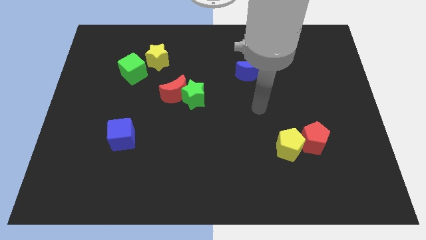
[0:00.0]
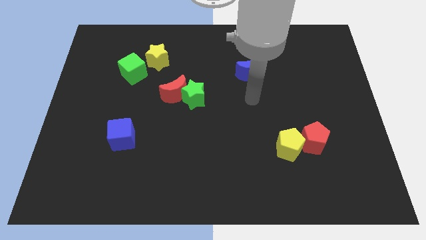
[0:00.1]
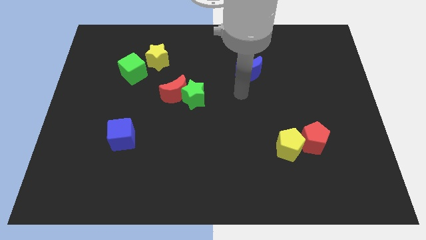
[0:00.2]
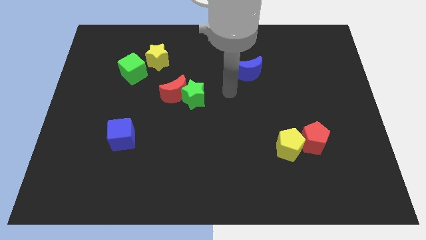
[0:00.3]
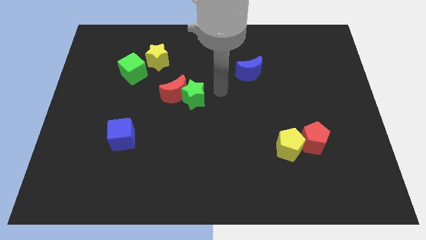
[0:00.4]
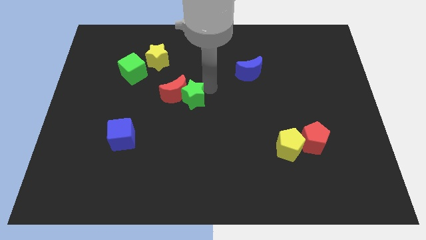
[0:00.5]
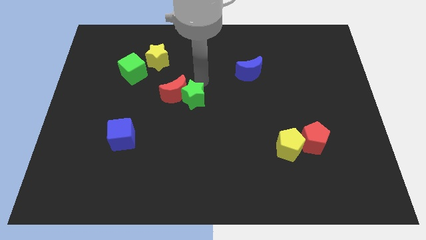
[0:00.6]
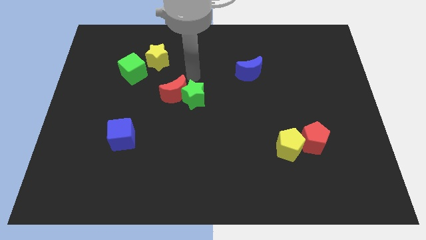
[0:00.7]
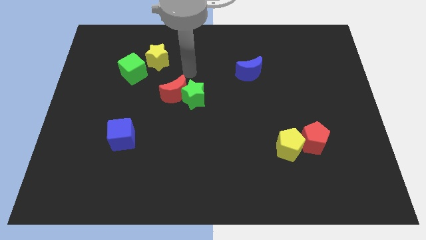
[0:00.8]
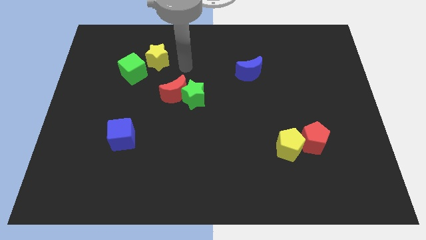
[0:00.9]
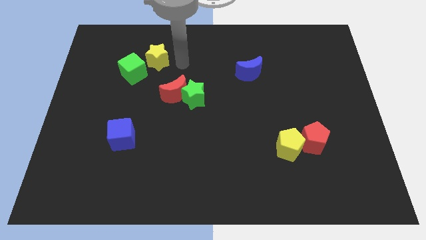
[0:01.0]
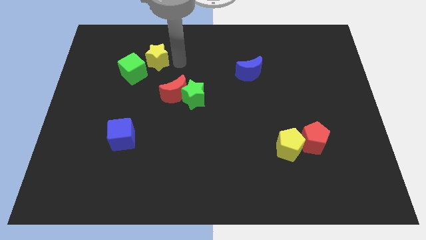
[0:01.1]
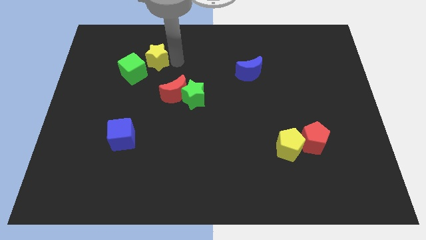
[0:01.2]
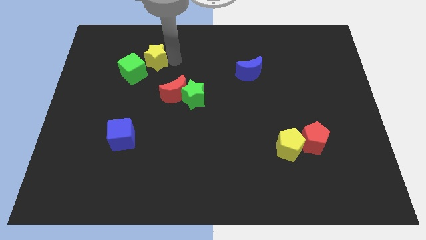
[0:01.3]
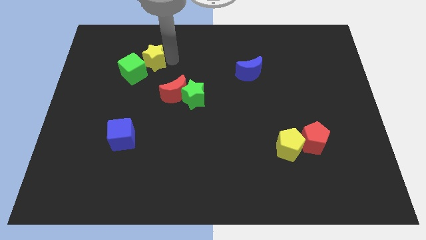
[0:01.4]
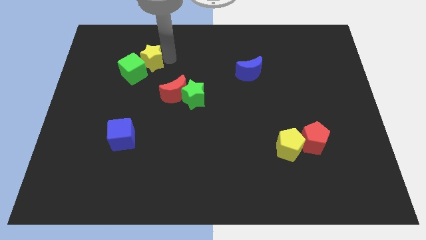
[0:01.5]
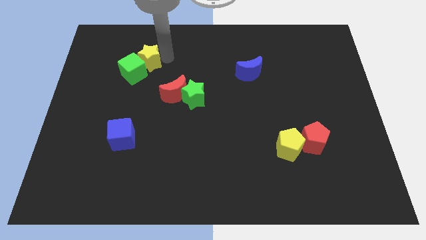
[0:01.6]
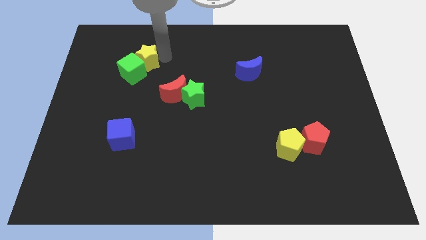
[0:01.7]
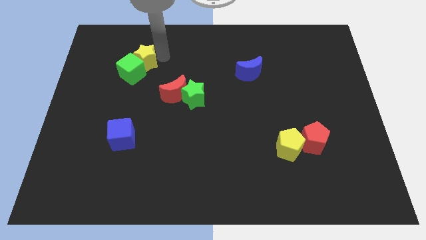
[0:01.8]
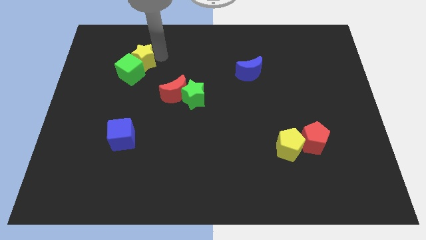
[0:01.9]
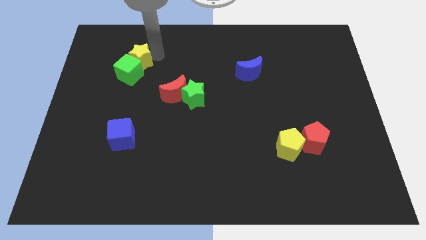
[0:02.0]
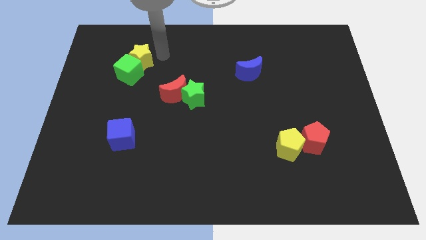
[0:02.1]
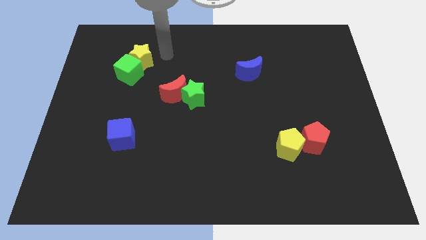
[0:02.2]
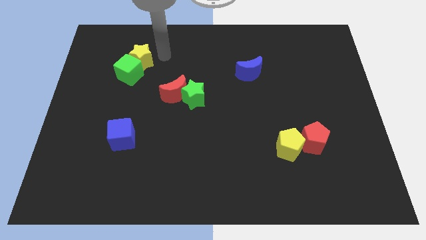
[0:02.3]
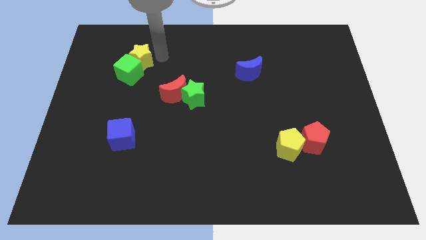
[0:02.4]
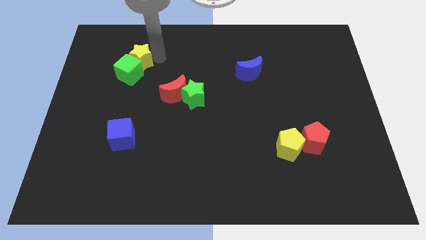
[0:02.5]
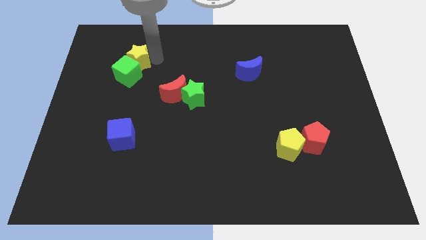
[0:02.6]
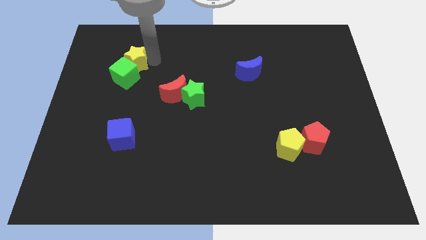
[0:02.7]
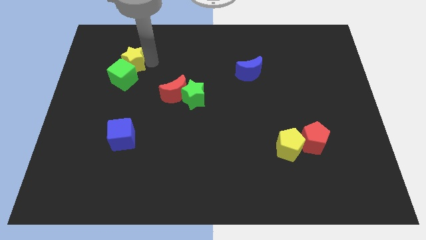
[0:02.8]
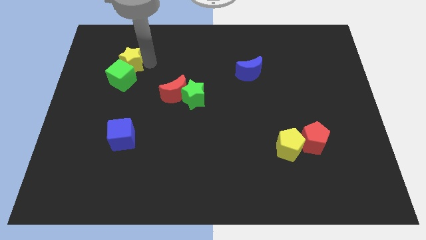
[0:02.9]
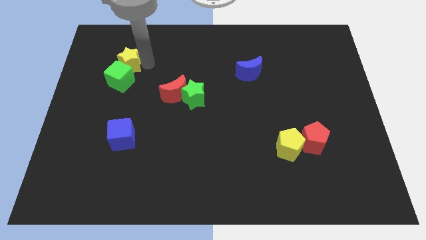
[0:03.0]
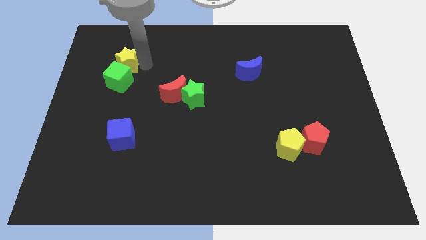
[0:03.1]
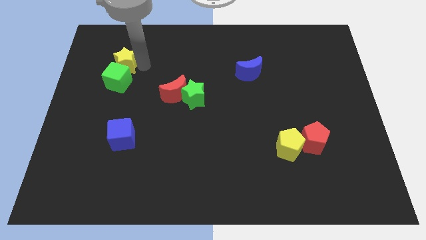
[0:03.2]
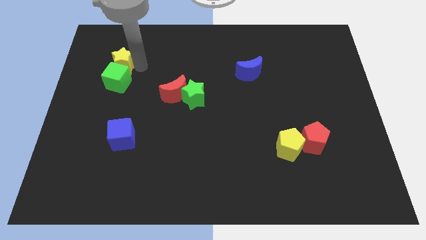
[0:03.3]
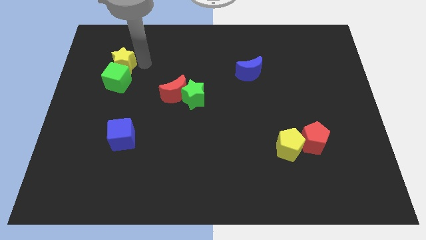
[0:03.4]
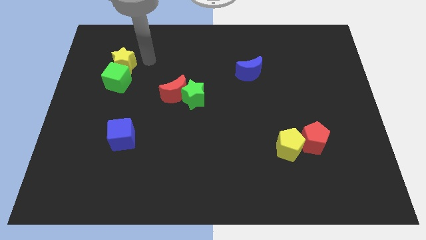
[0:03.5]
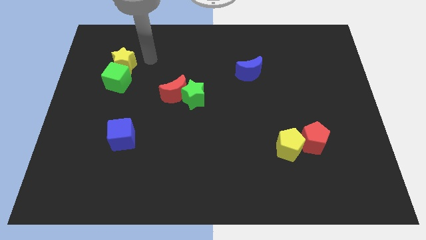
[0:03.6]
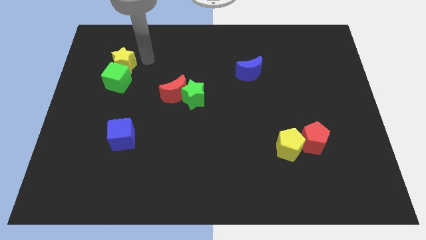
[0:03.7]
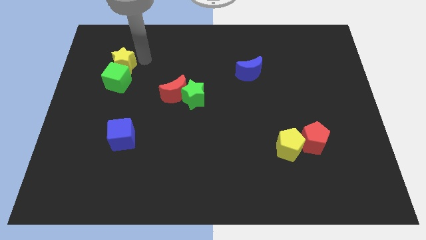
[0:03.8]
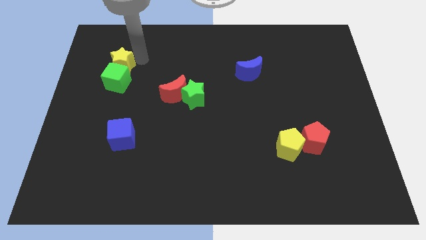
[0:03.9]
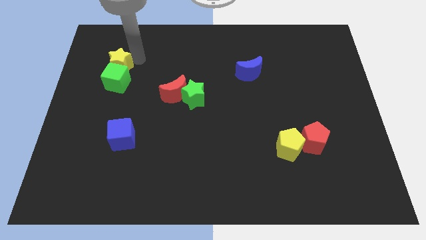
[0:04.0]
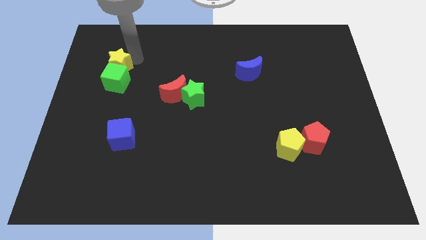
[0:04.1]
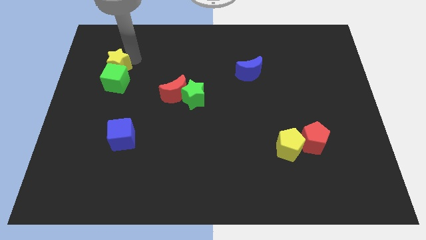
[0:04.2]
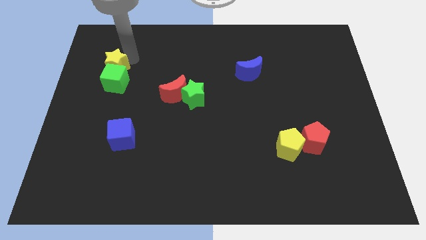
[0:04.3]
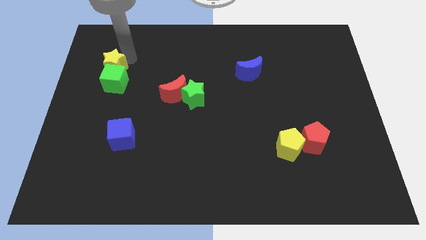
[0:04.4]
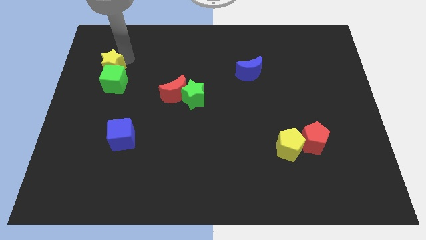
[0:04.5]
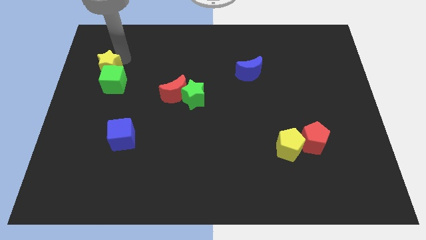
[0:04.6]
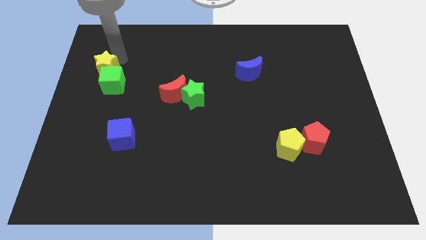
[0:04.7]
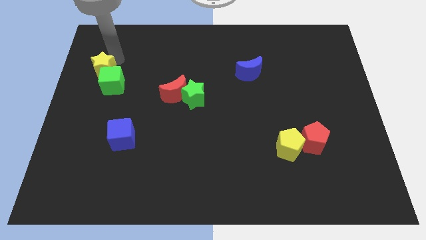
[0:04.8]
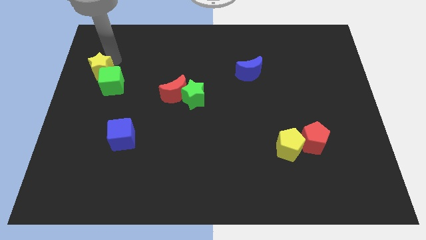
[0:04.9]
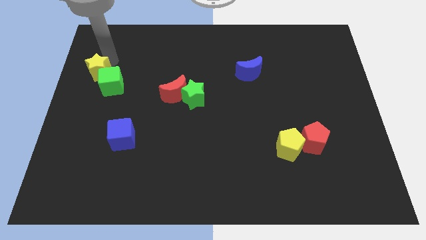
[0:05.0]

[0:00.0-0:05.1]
put the yellow star to the left side

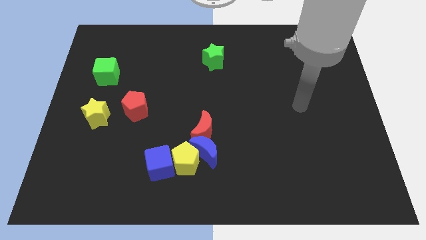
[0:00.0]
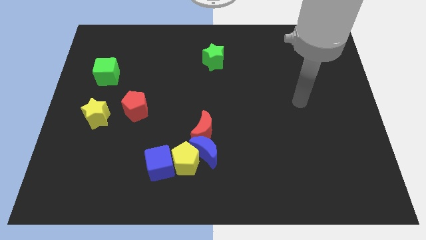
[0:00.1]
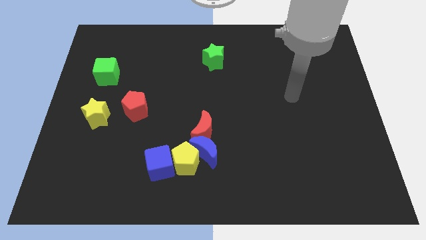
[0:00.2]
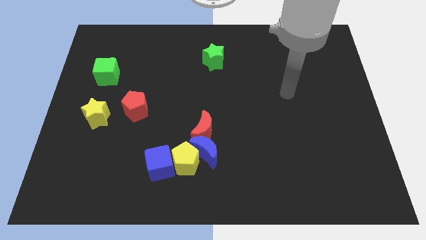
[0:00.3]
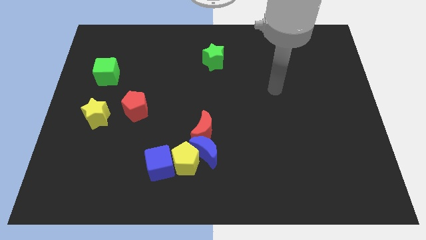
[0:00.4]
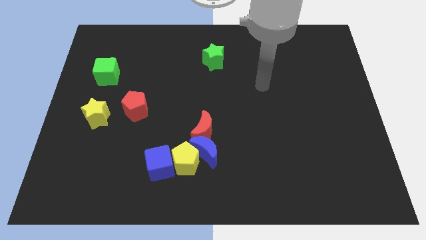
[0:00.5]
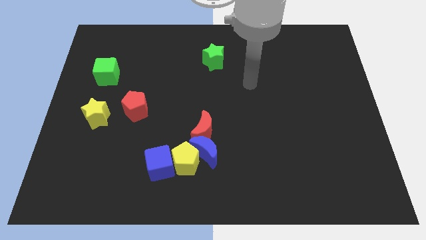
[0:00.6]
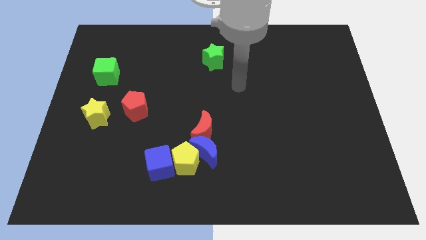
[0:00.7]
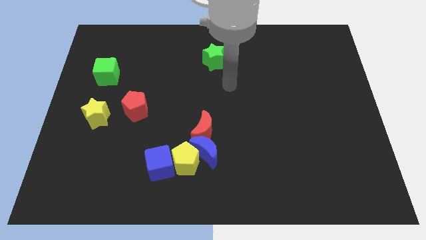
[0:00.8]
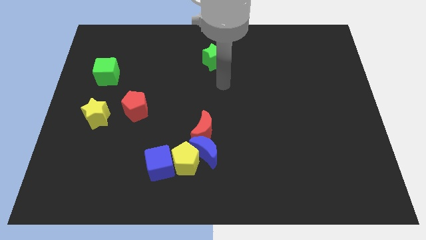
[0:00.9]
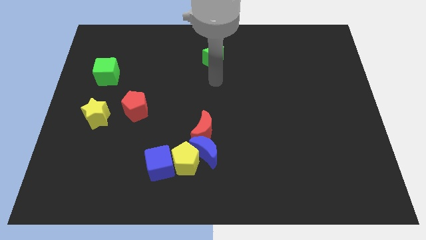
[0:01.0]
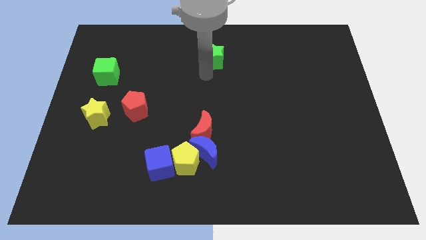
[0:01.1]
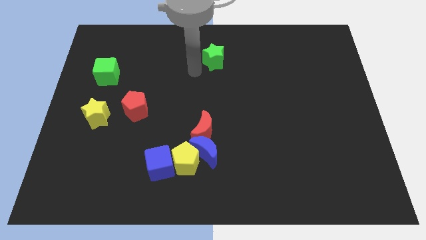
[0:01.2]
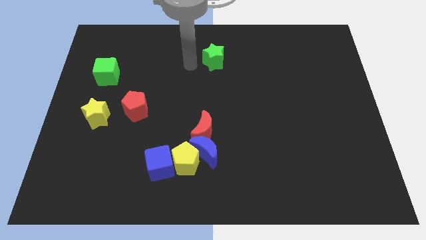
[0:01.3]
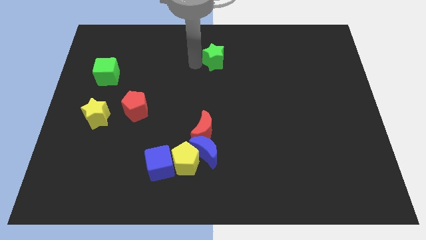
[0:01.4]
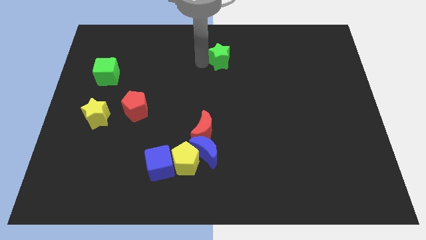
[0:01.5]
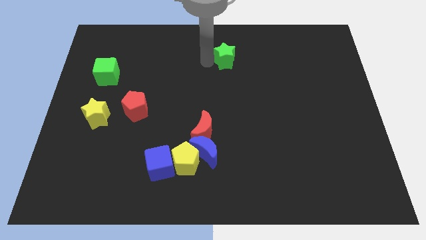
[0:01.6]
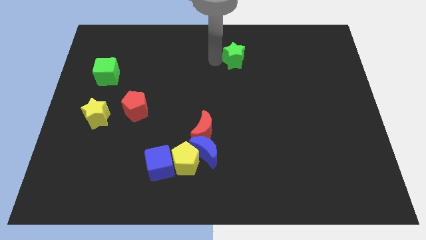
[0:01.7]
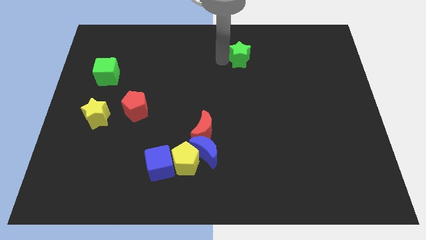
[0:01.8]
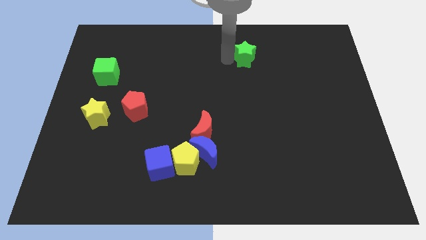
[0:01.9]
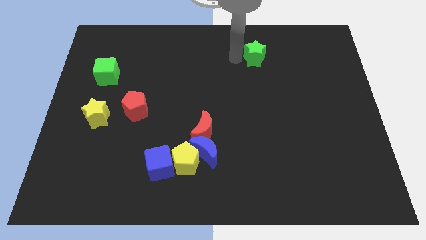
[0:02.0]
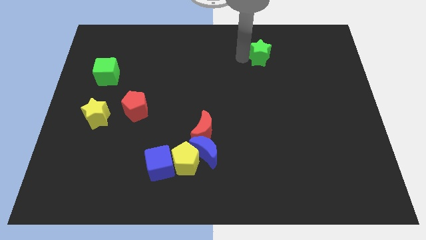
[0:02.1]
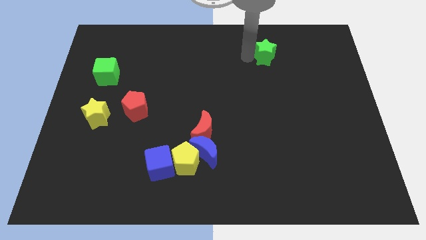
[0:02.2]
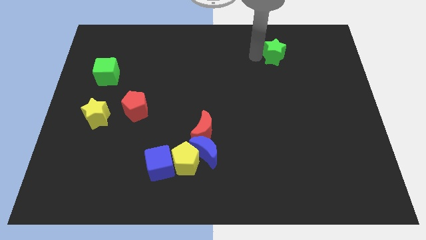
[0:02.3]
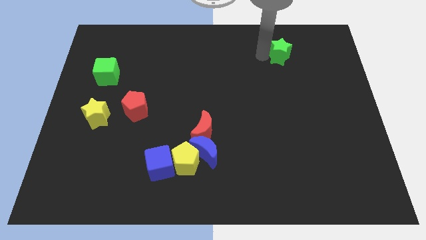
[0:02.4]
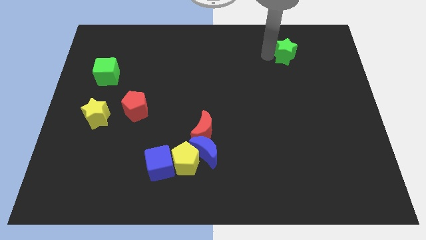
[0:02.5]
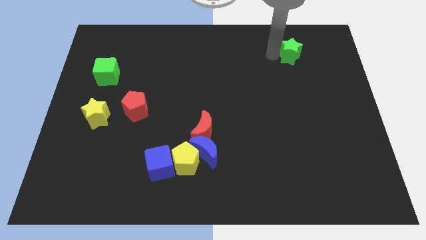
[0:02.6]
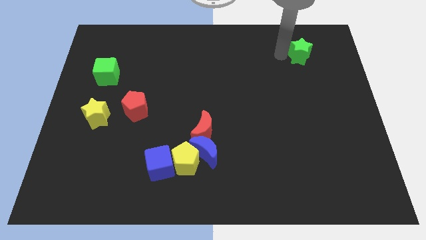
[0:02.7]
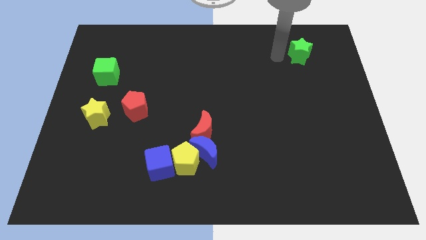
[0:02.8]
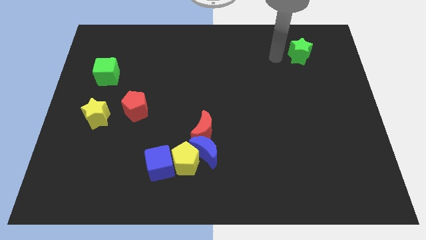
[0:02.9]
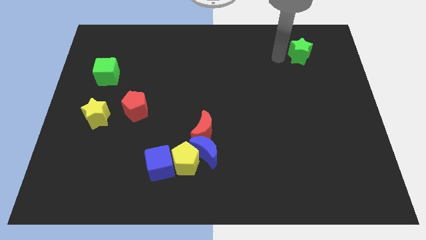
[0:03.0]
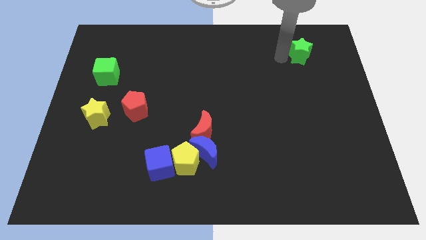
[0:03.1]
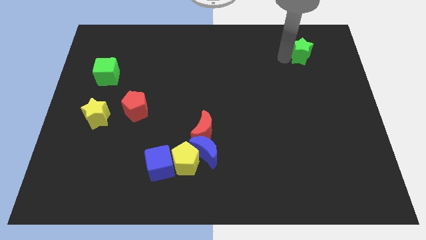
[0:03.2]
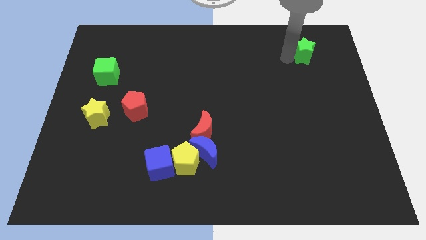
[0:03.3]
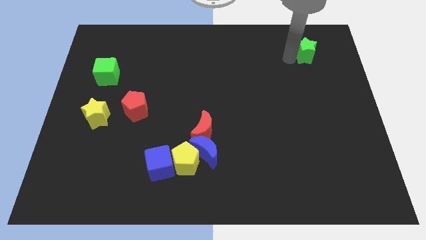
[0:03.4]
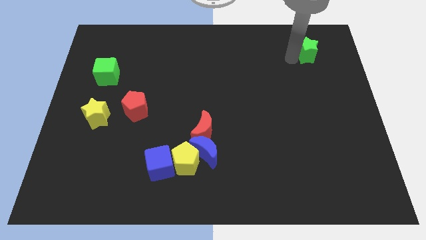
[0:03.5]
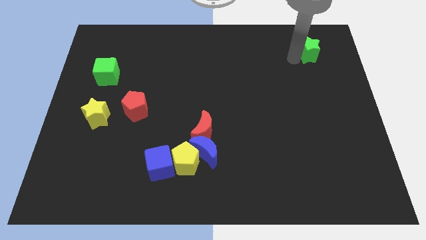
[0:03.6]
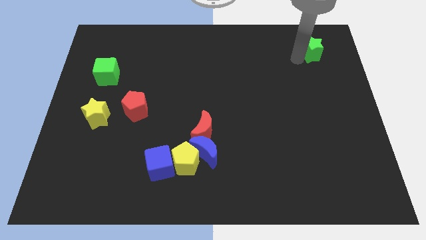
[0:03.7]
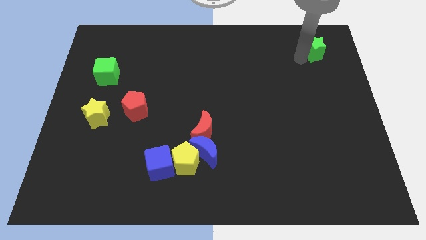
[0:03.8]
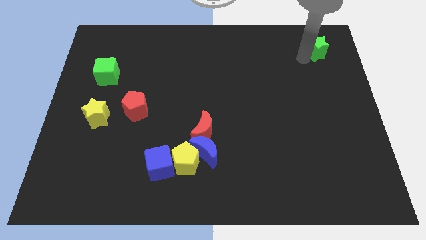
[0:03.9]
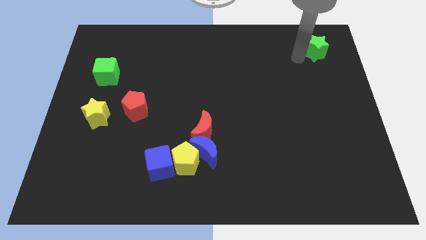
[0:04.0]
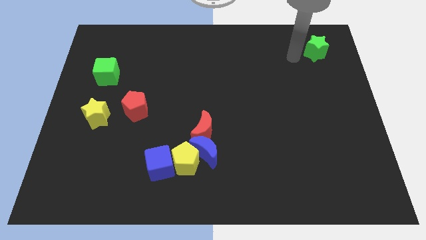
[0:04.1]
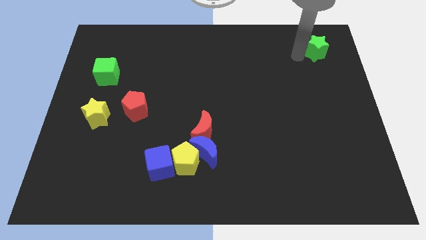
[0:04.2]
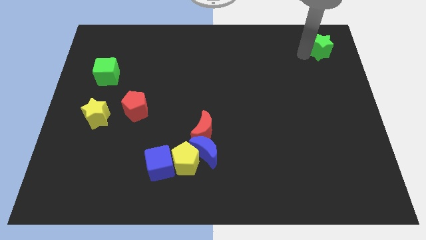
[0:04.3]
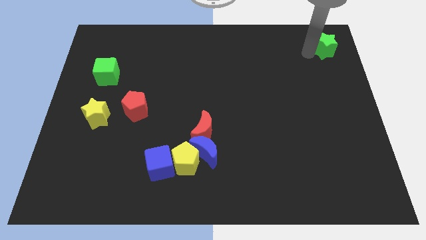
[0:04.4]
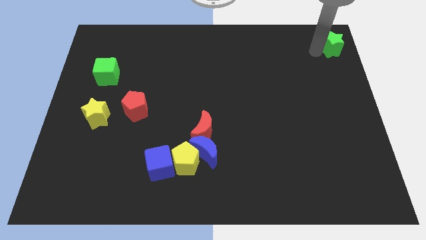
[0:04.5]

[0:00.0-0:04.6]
move the green star to the upper right corner
